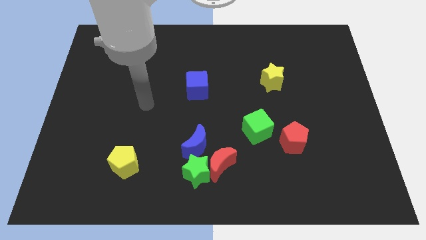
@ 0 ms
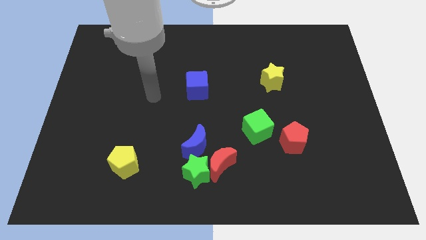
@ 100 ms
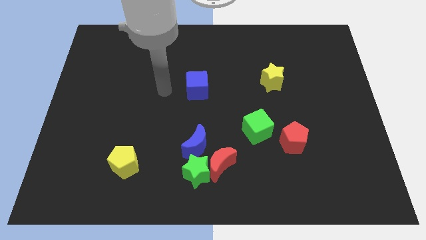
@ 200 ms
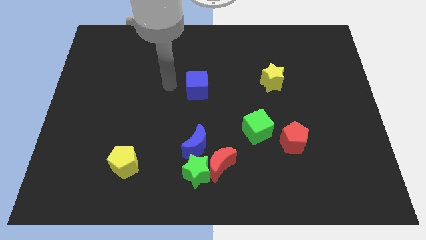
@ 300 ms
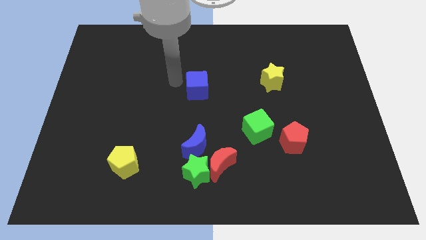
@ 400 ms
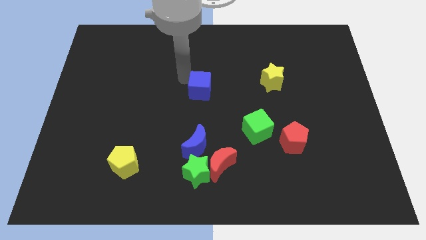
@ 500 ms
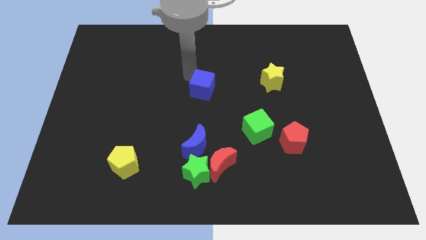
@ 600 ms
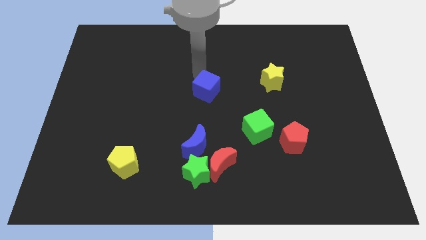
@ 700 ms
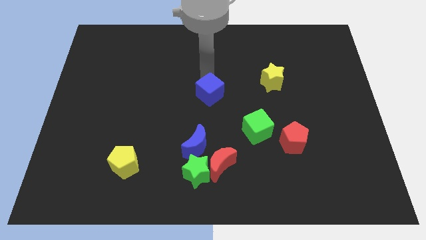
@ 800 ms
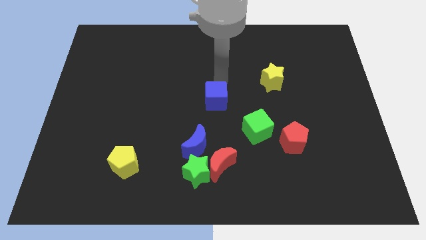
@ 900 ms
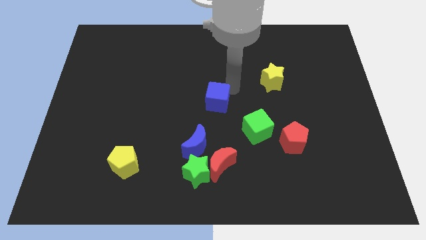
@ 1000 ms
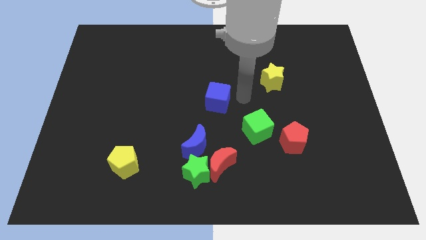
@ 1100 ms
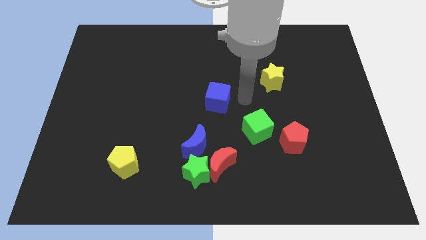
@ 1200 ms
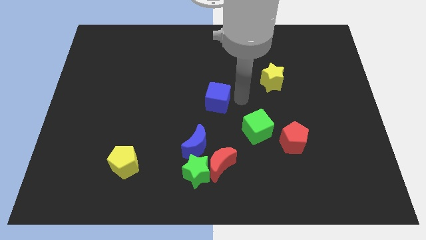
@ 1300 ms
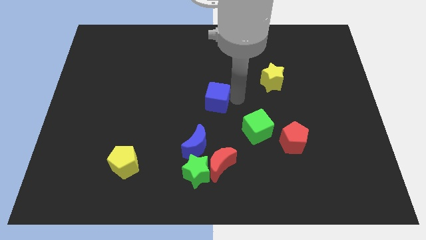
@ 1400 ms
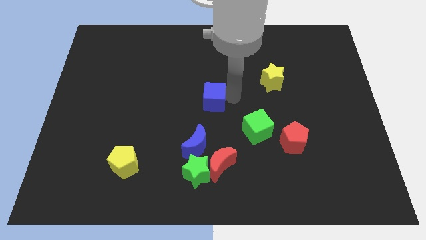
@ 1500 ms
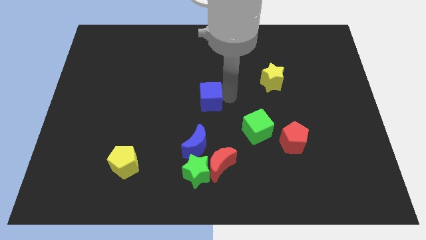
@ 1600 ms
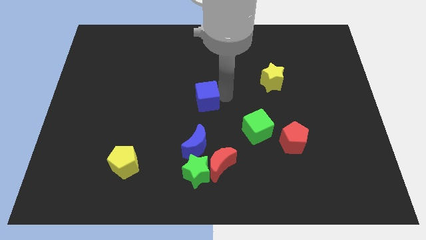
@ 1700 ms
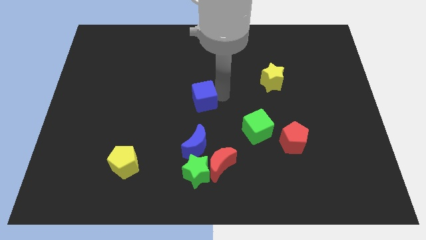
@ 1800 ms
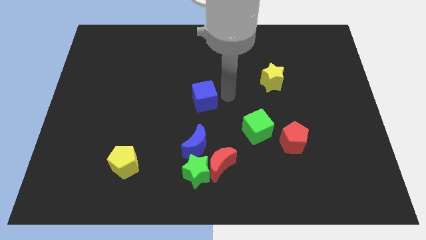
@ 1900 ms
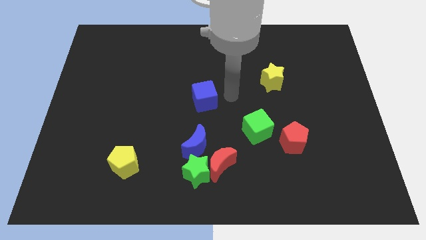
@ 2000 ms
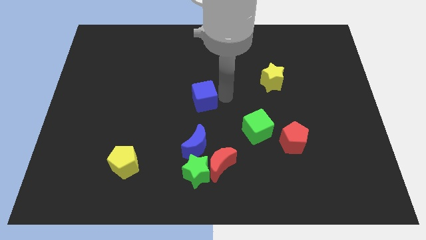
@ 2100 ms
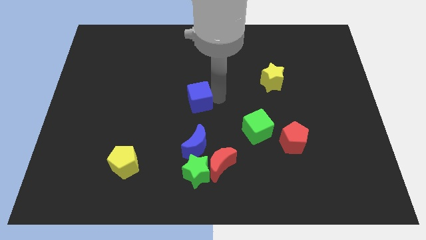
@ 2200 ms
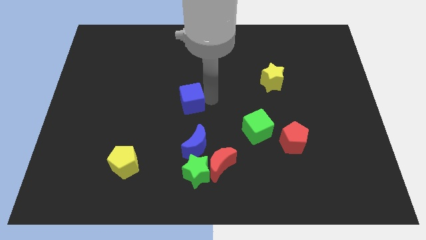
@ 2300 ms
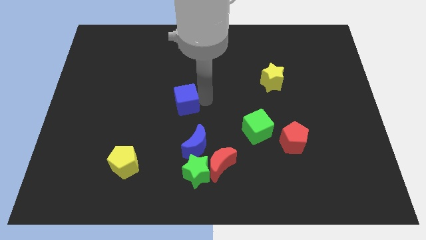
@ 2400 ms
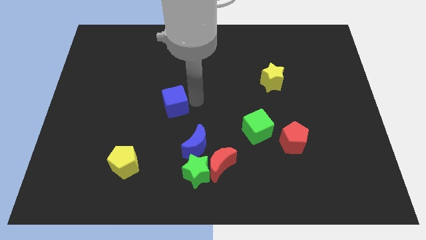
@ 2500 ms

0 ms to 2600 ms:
push the blue cube somewhat down and to the left

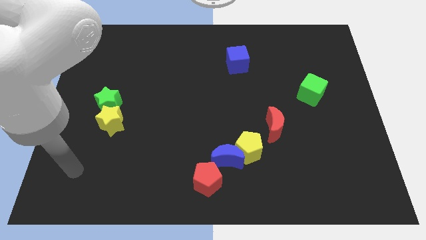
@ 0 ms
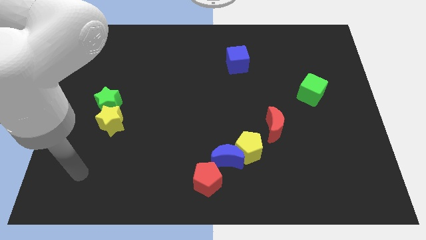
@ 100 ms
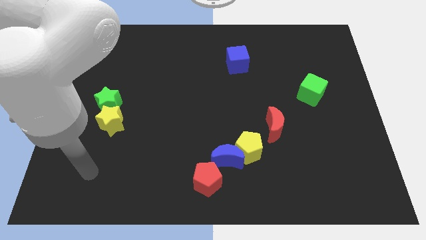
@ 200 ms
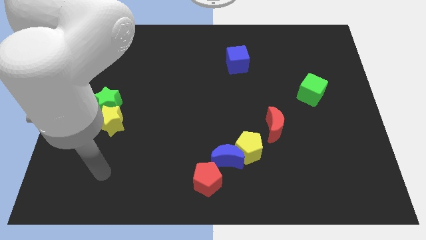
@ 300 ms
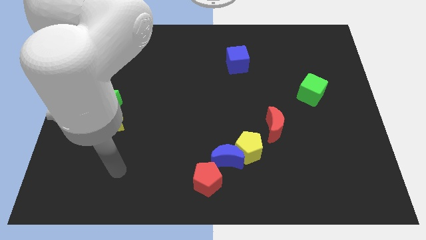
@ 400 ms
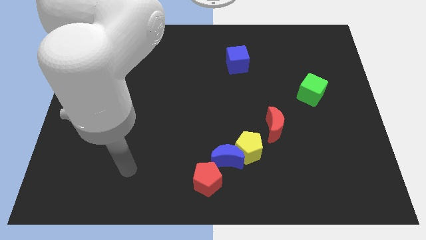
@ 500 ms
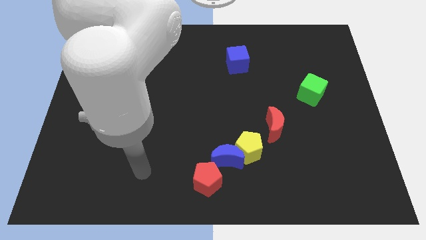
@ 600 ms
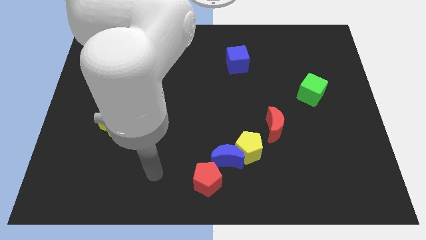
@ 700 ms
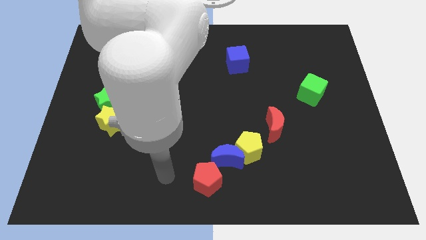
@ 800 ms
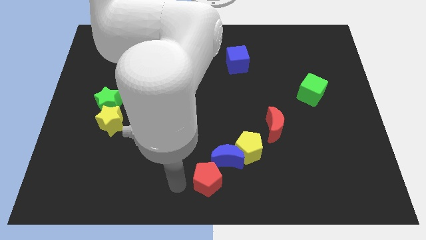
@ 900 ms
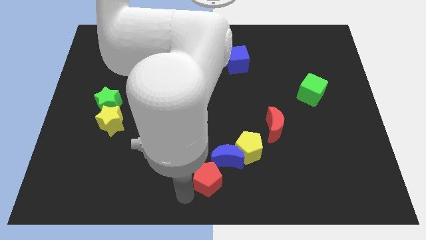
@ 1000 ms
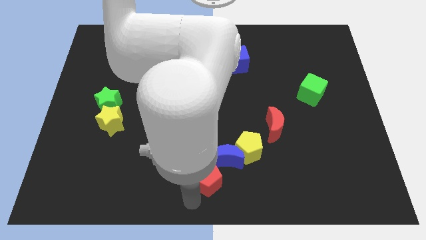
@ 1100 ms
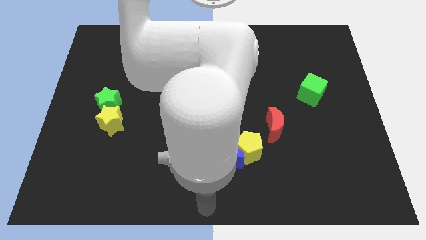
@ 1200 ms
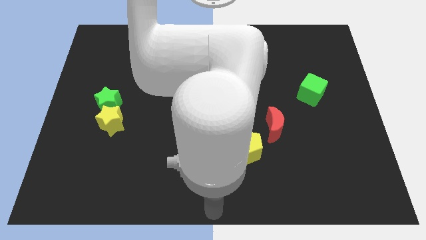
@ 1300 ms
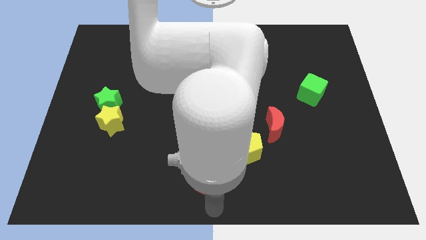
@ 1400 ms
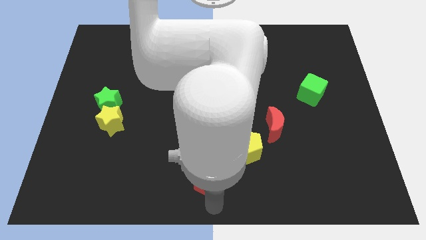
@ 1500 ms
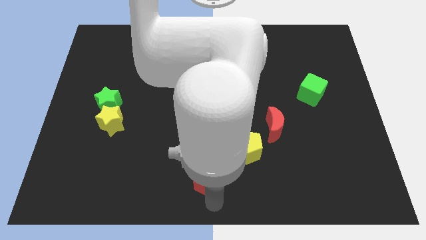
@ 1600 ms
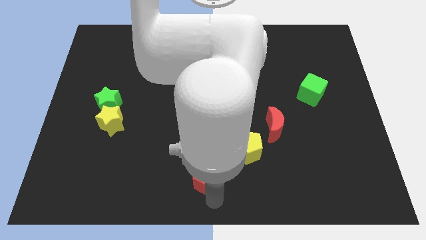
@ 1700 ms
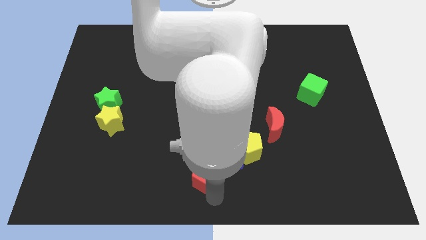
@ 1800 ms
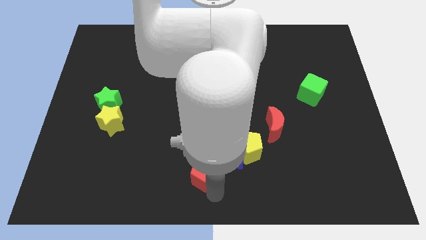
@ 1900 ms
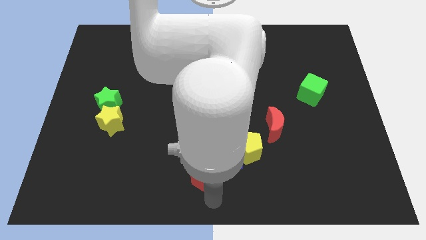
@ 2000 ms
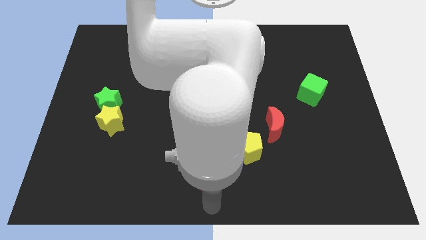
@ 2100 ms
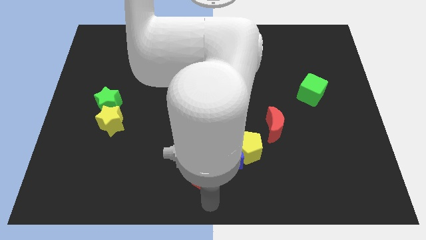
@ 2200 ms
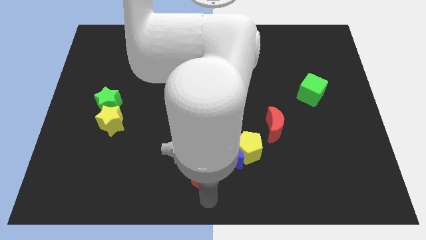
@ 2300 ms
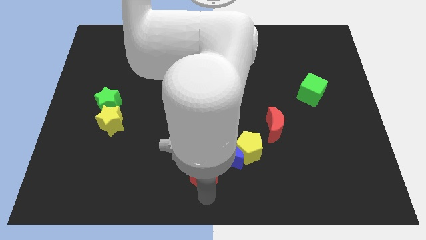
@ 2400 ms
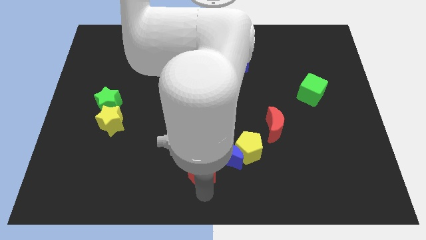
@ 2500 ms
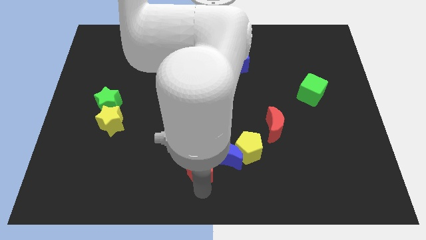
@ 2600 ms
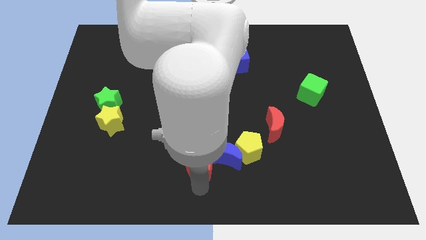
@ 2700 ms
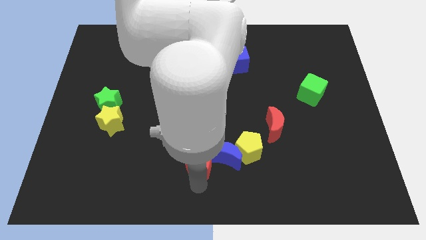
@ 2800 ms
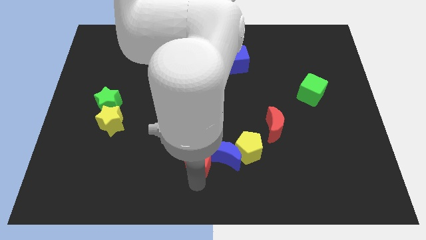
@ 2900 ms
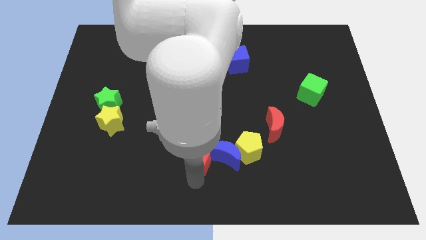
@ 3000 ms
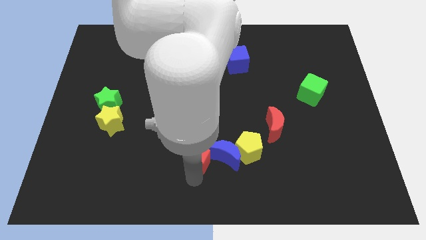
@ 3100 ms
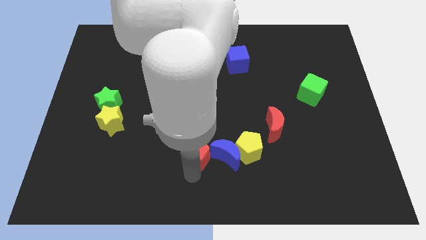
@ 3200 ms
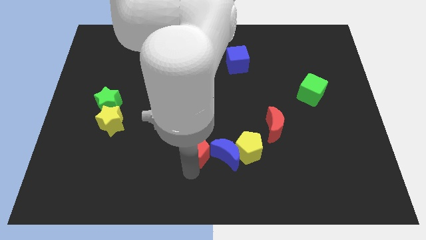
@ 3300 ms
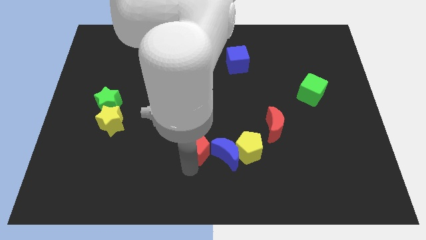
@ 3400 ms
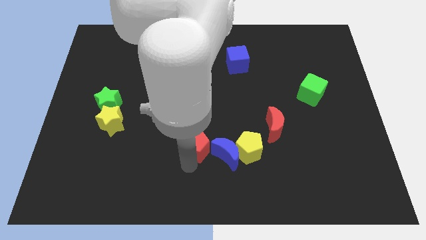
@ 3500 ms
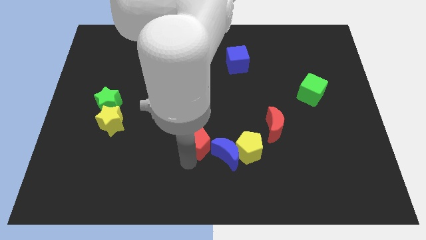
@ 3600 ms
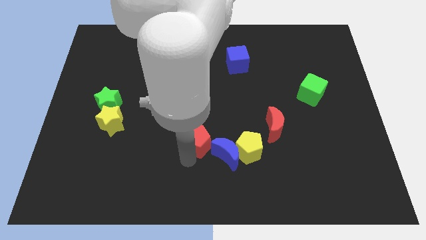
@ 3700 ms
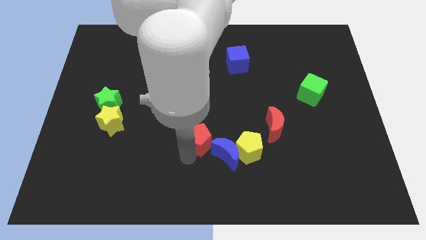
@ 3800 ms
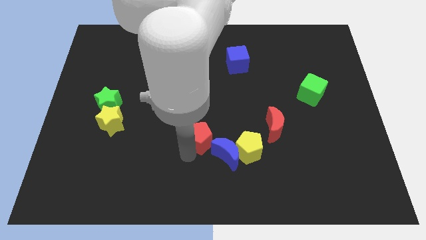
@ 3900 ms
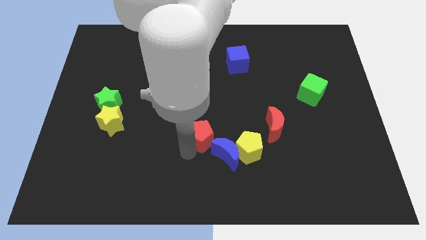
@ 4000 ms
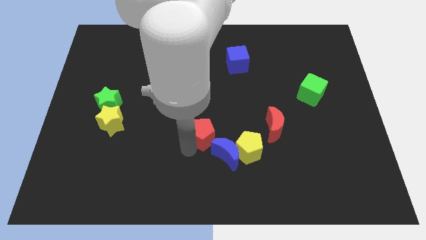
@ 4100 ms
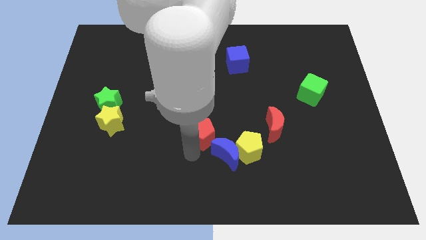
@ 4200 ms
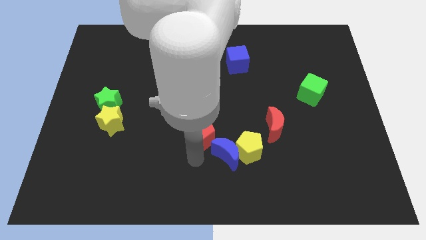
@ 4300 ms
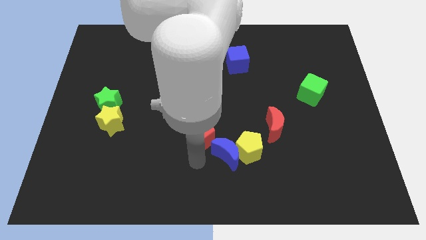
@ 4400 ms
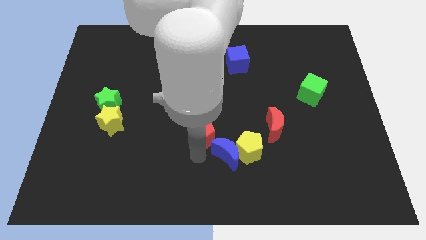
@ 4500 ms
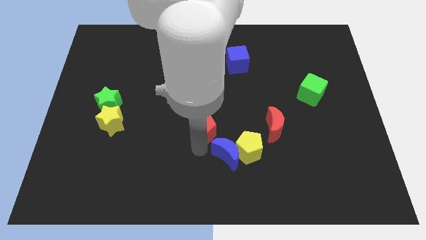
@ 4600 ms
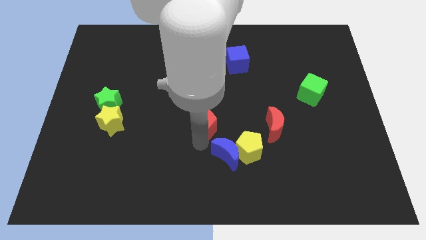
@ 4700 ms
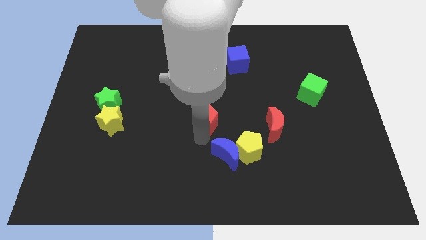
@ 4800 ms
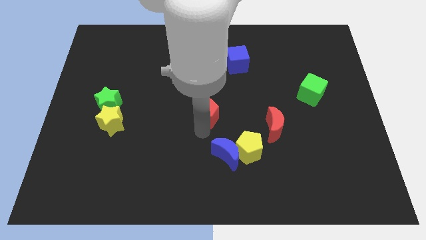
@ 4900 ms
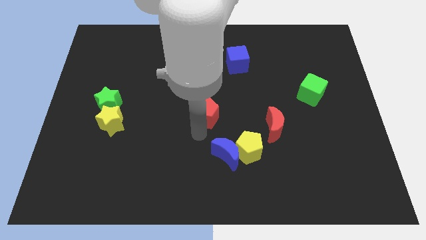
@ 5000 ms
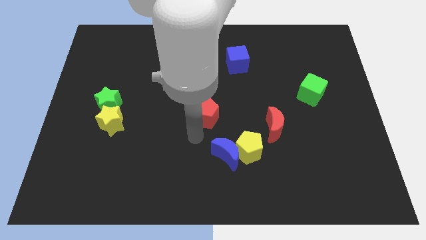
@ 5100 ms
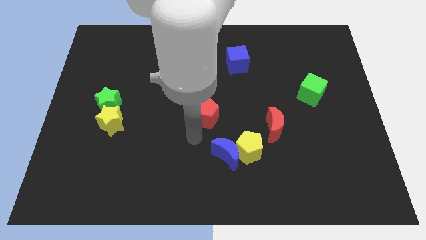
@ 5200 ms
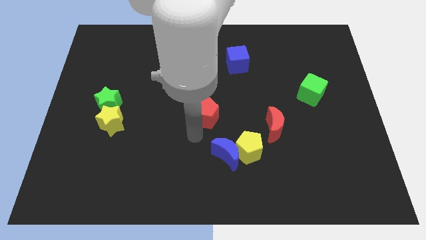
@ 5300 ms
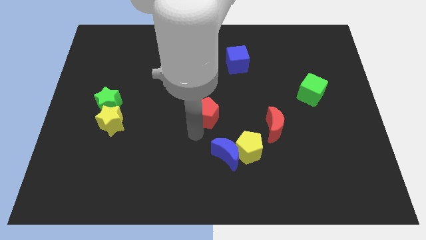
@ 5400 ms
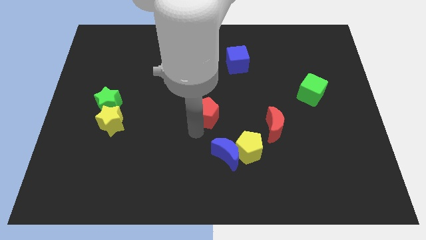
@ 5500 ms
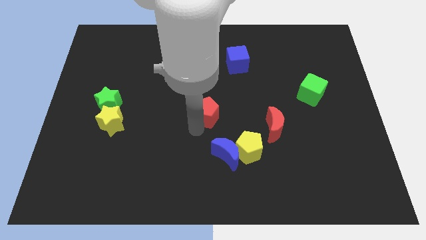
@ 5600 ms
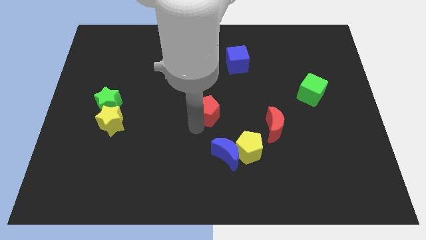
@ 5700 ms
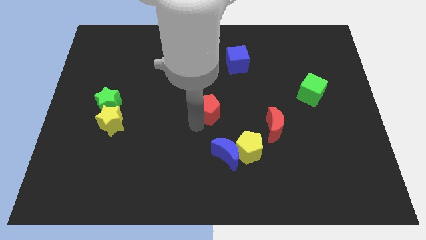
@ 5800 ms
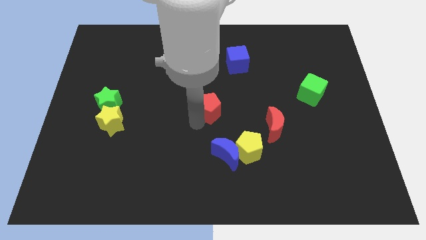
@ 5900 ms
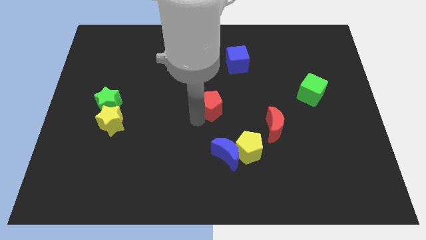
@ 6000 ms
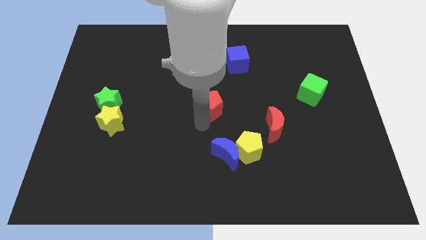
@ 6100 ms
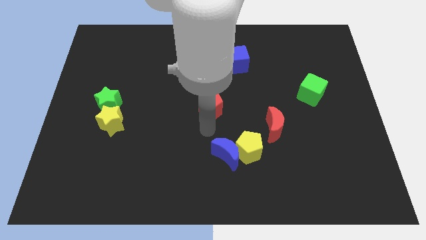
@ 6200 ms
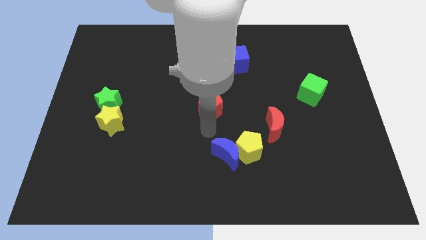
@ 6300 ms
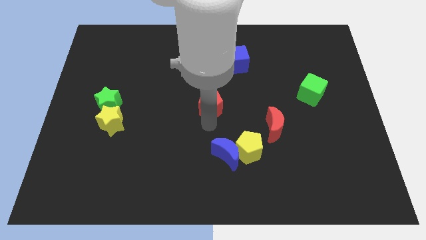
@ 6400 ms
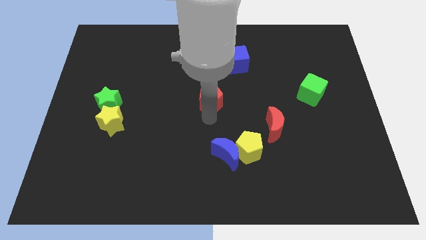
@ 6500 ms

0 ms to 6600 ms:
slide the red pentagon upwards
